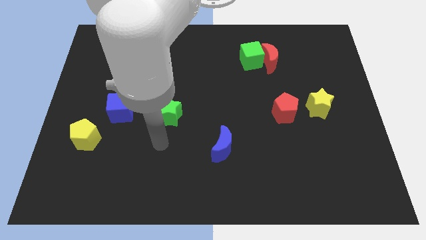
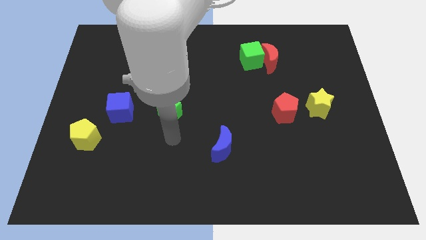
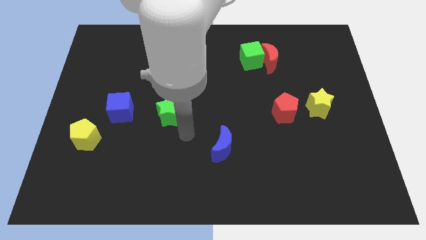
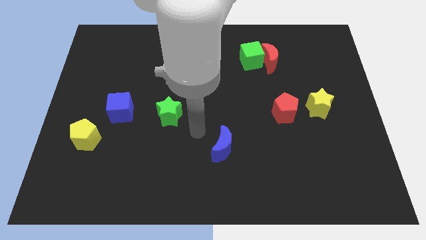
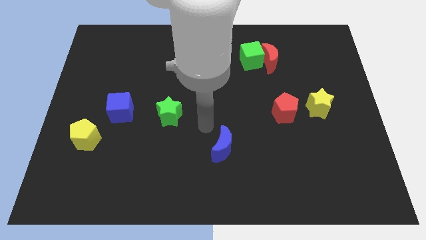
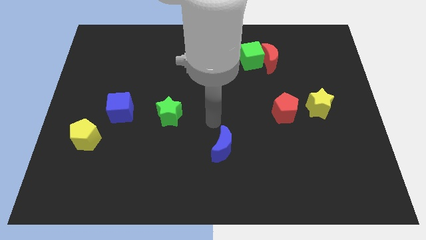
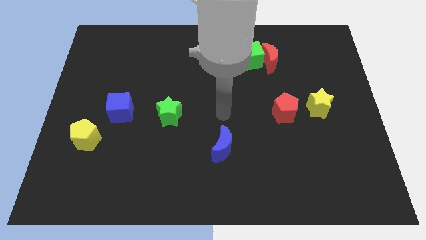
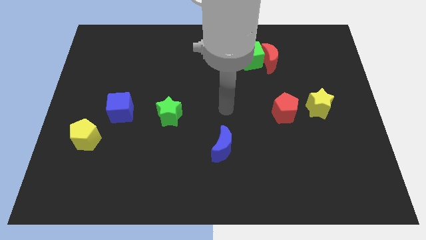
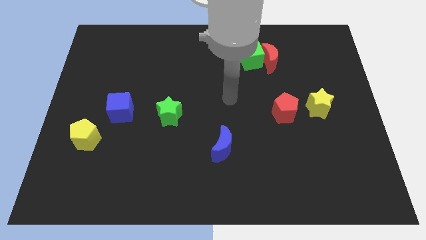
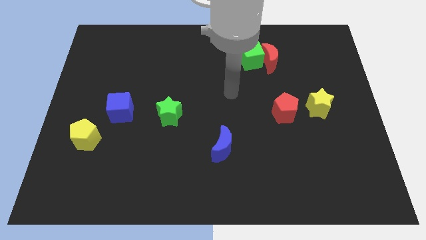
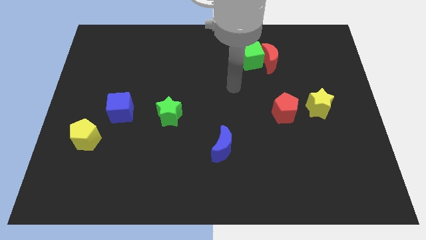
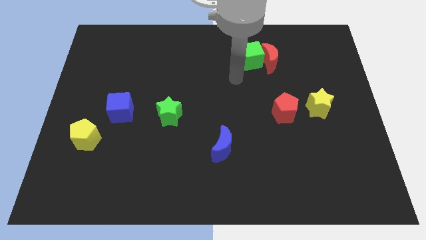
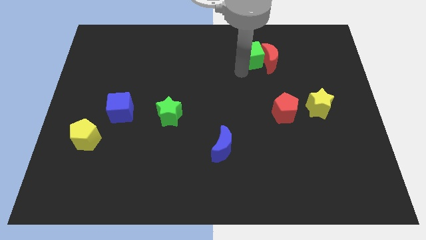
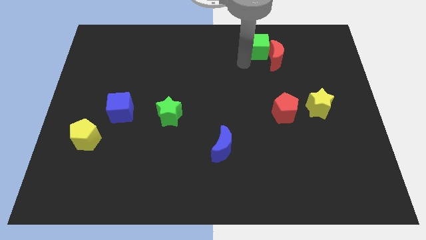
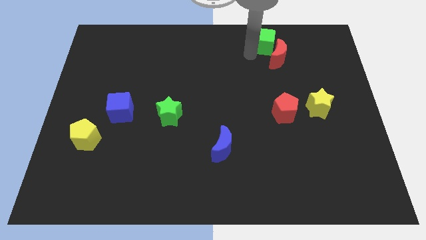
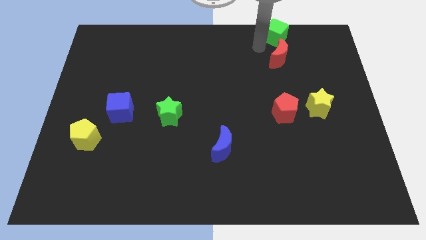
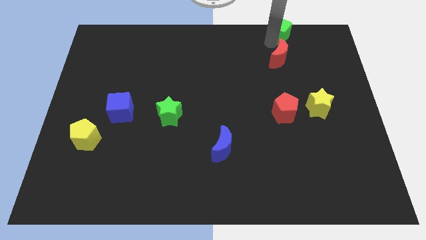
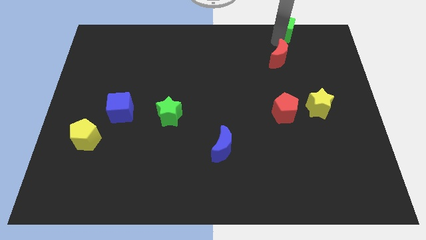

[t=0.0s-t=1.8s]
pull the red moon apart from the green cube

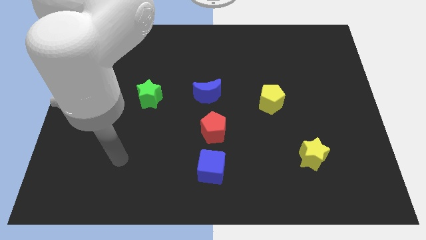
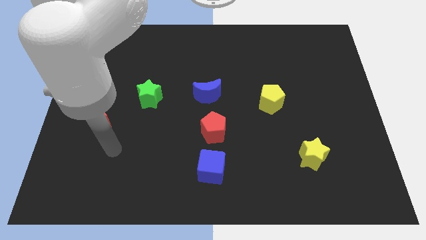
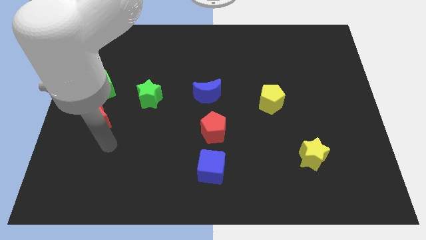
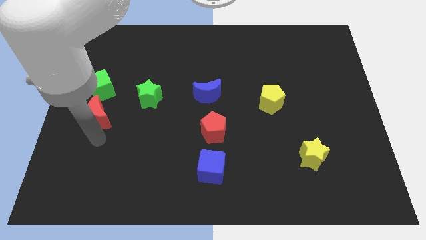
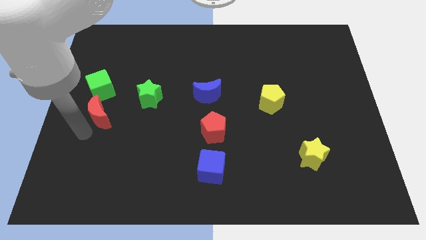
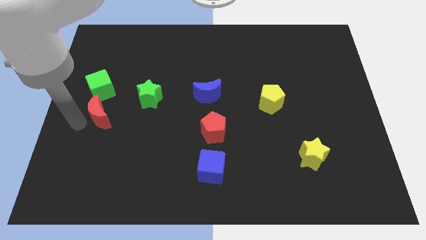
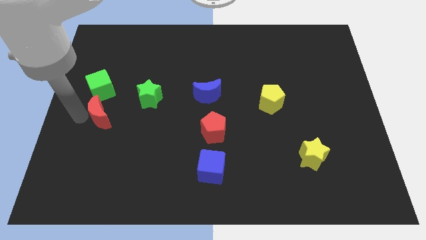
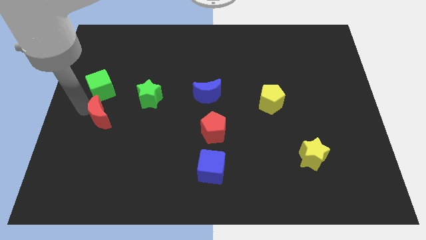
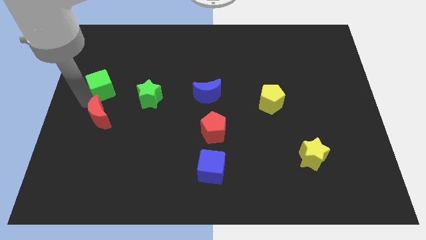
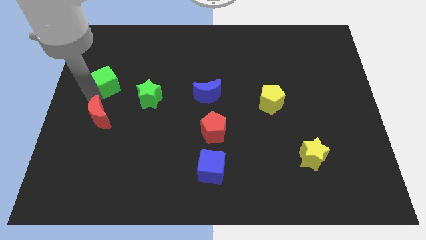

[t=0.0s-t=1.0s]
move the red moon away from the green cube

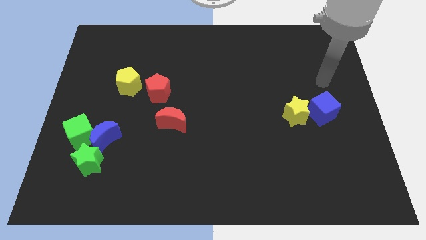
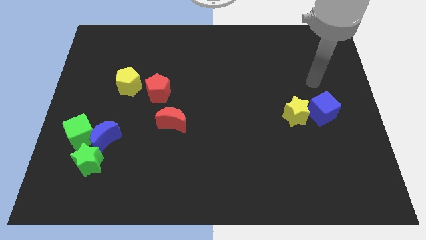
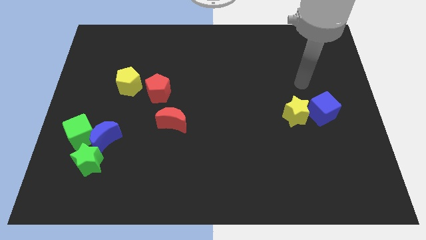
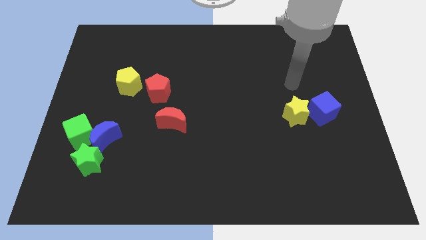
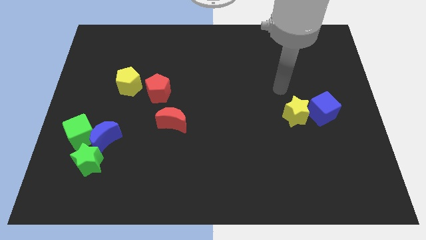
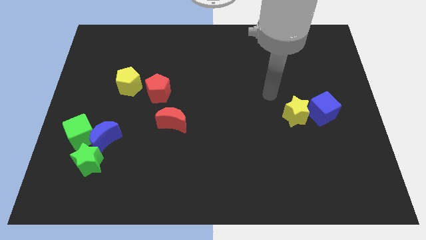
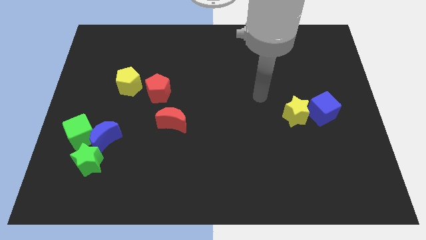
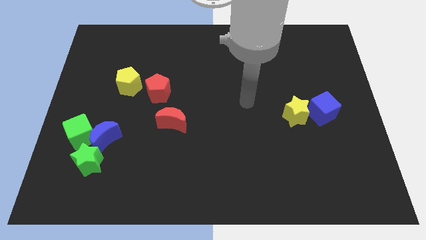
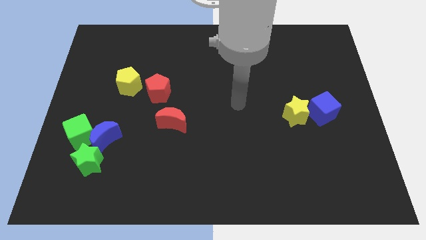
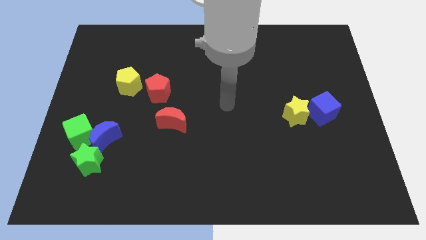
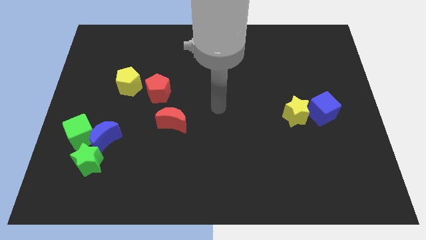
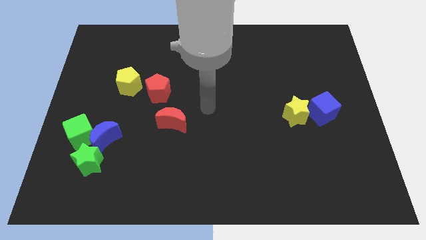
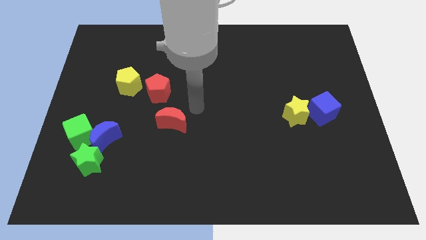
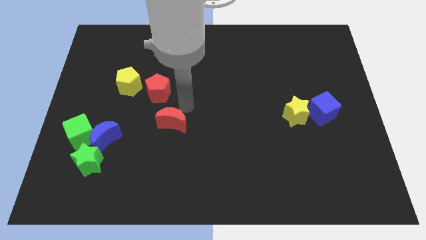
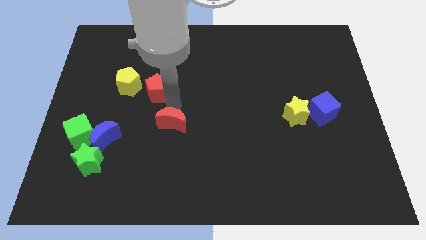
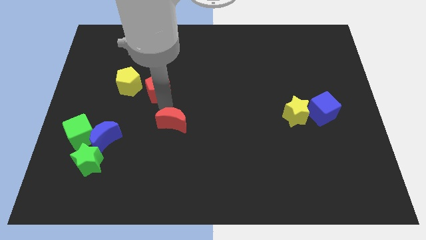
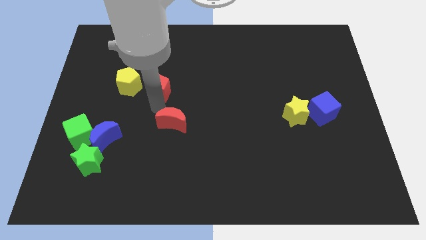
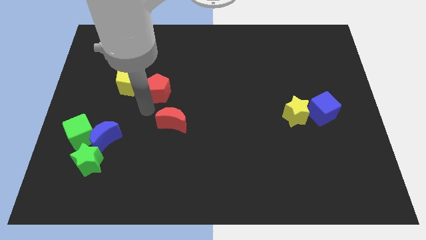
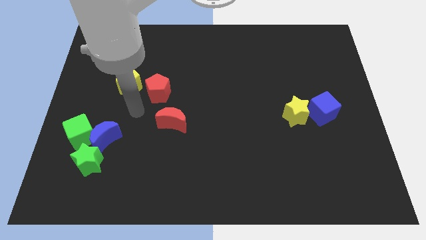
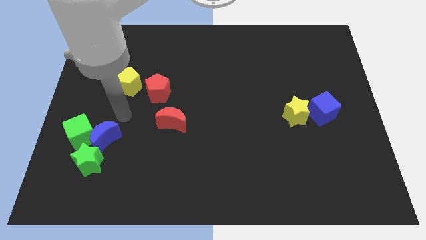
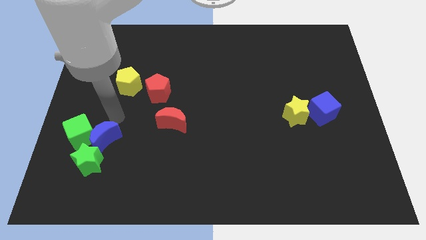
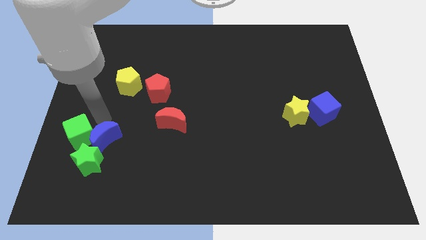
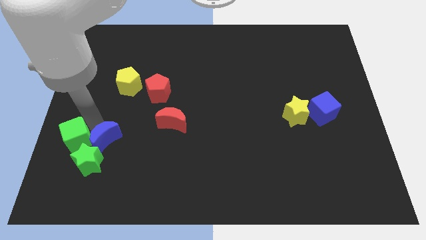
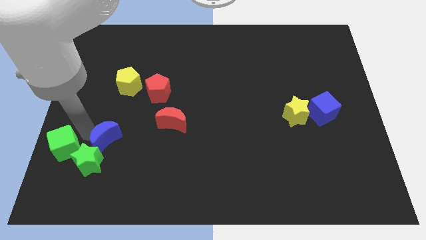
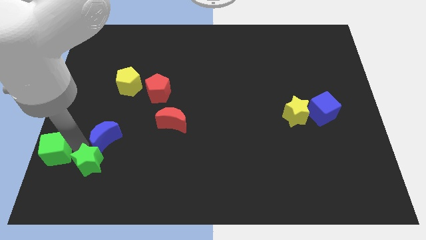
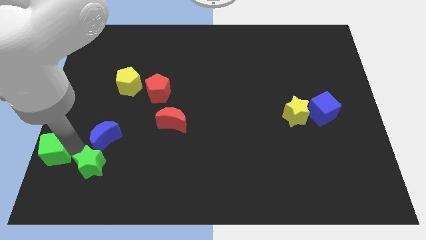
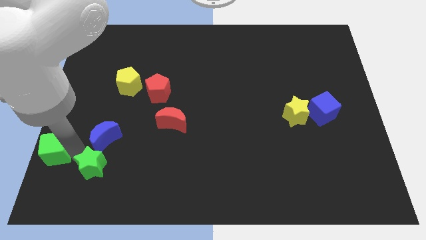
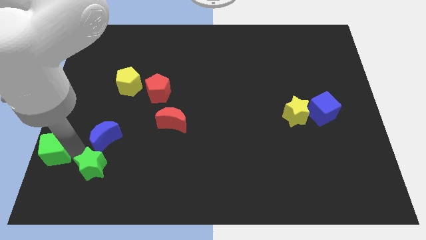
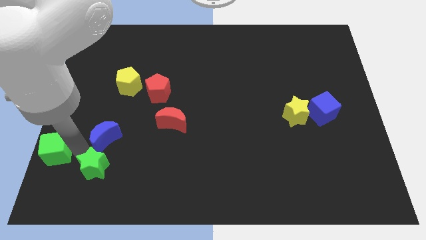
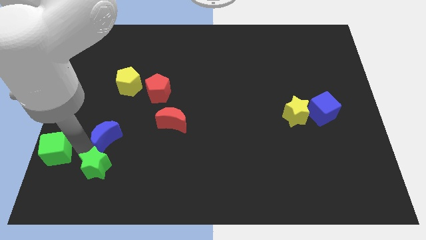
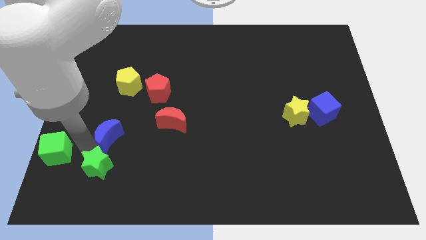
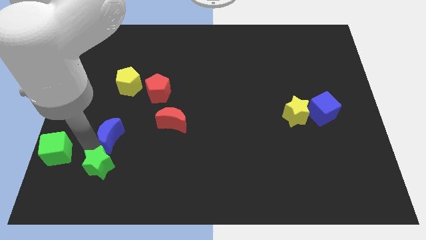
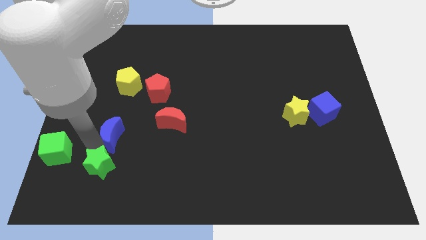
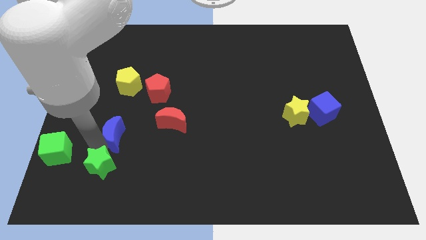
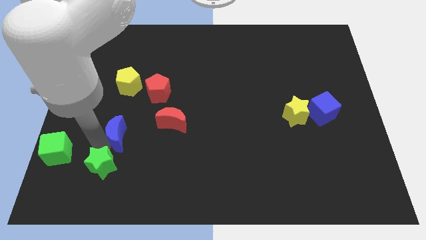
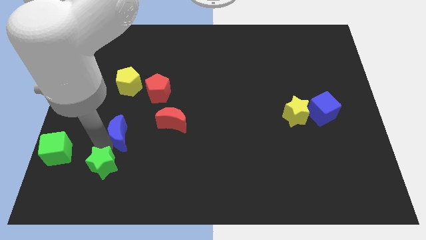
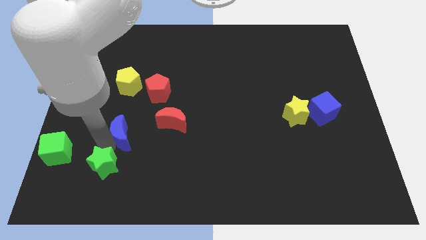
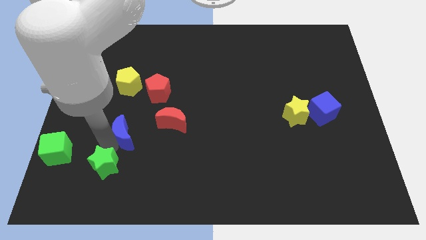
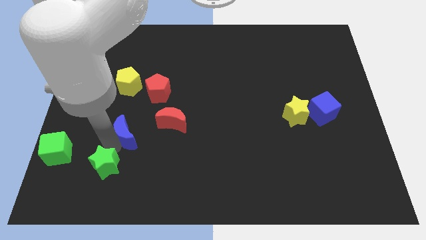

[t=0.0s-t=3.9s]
separate the blue moon from the green cube and green star

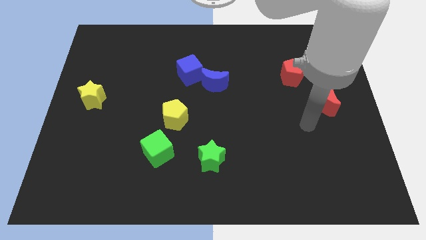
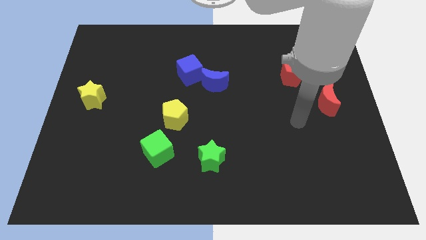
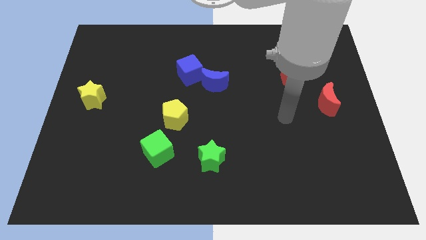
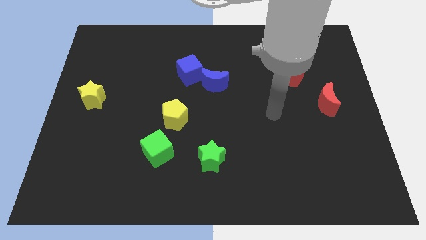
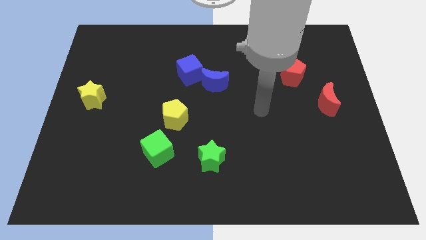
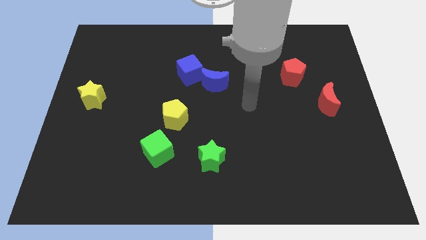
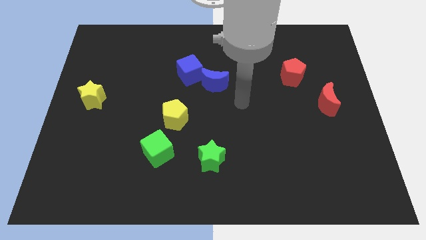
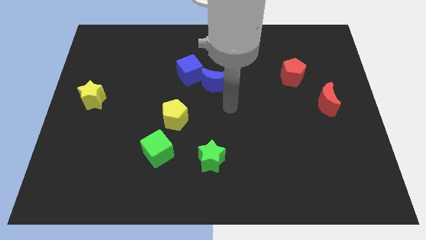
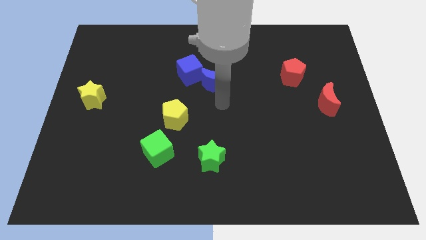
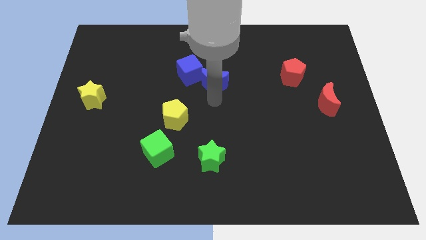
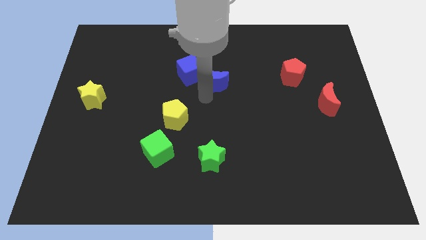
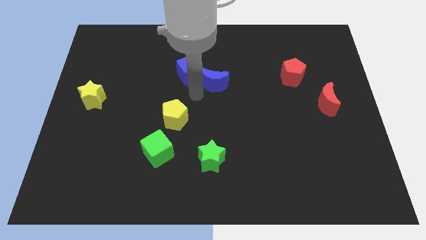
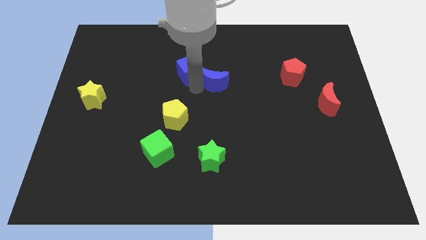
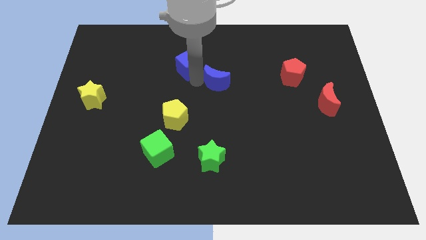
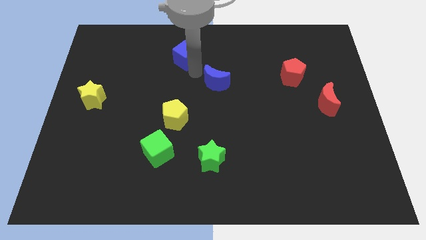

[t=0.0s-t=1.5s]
move the blue moon away from the blue cube

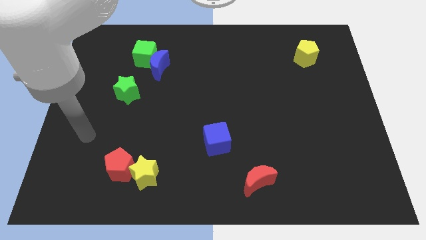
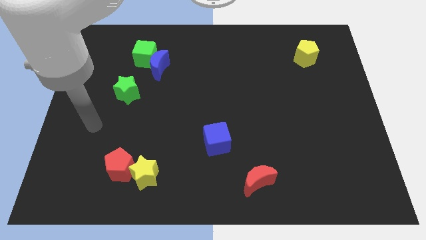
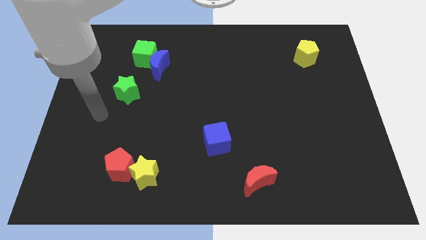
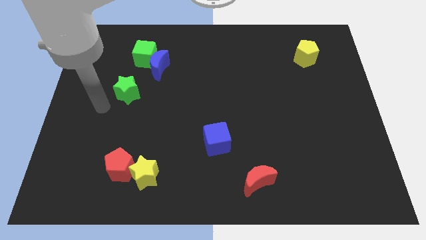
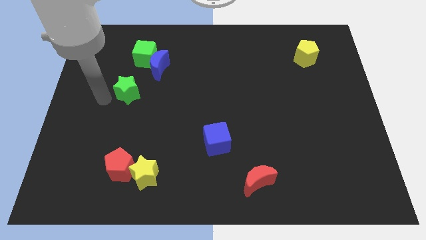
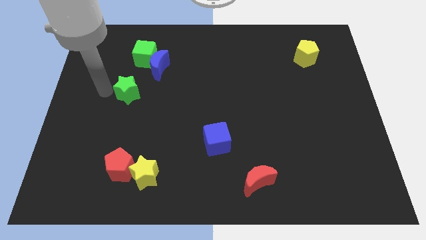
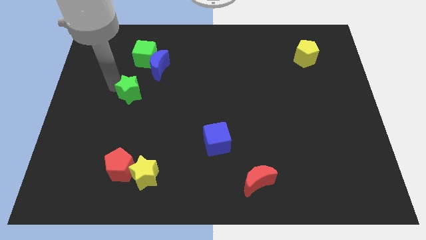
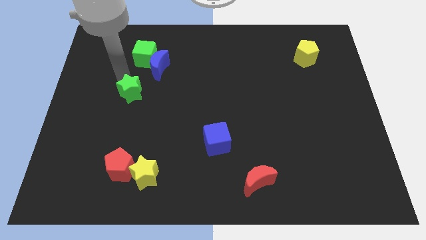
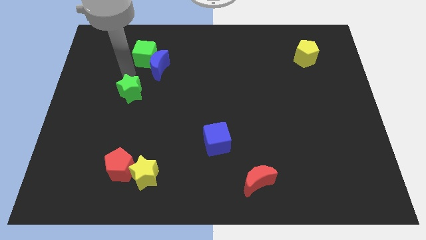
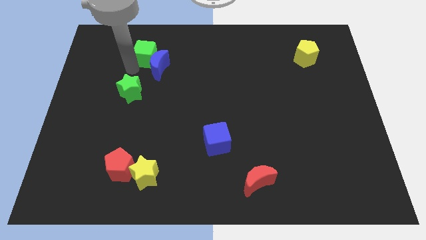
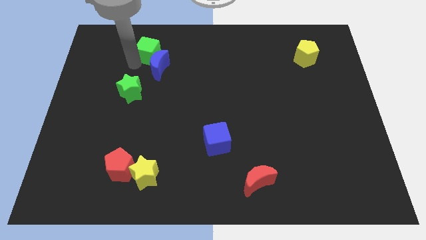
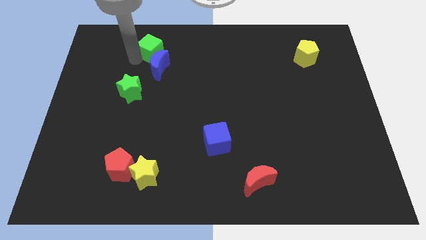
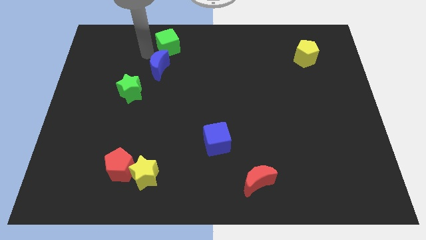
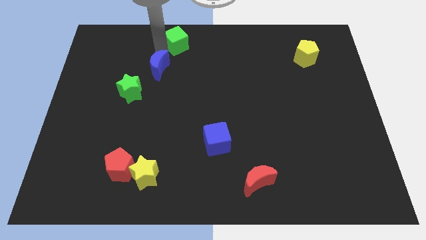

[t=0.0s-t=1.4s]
pull the blue moon apart from the green cube
